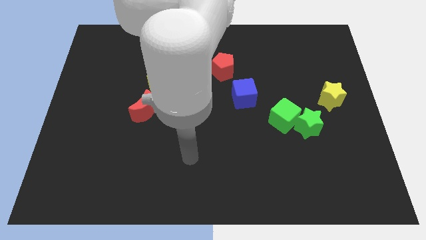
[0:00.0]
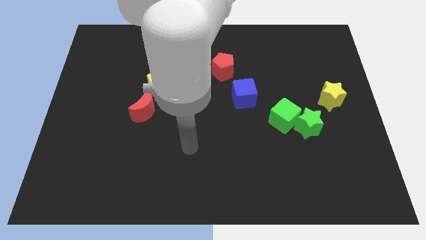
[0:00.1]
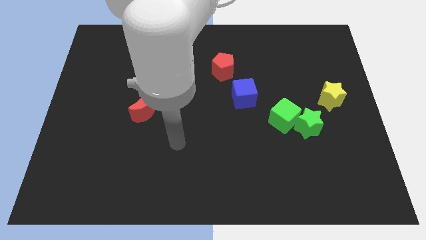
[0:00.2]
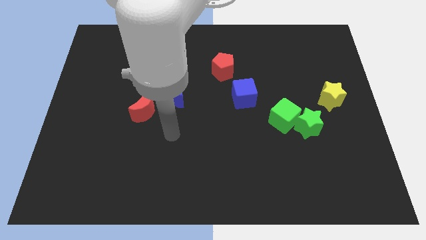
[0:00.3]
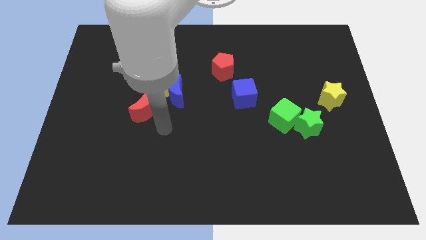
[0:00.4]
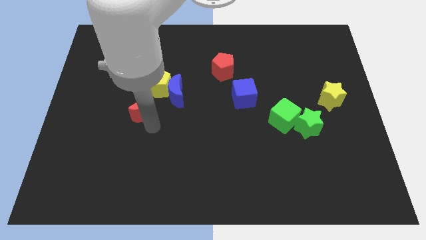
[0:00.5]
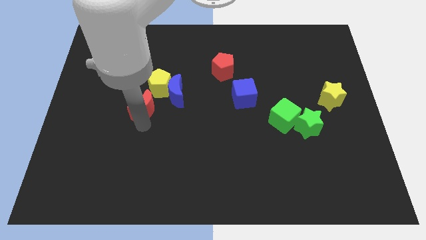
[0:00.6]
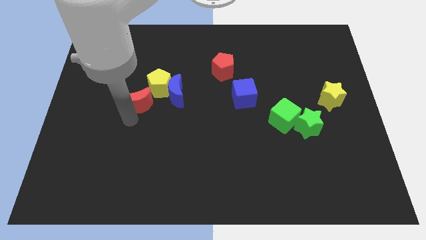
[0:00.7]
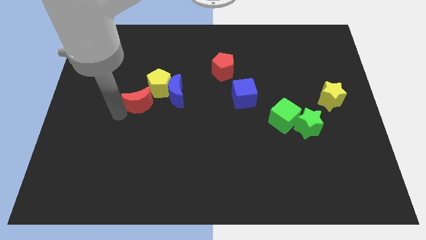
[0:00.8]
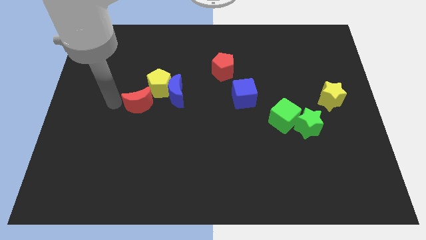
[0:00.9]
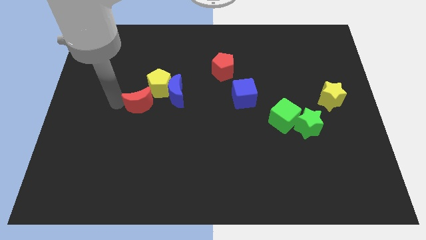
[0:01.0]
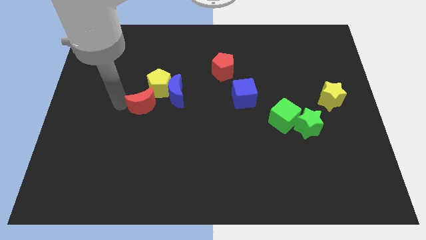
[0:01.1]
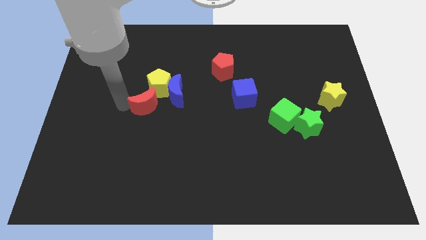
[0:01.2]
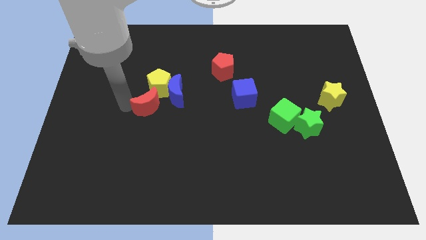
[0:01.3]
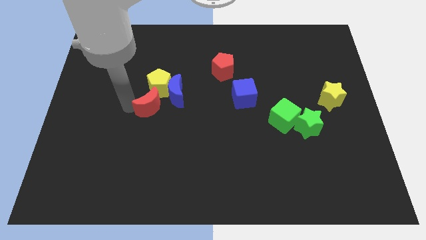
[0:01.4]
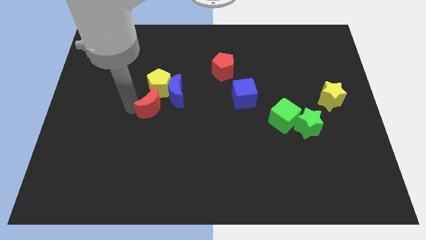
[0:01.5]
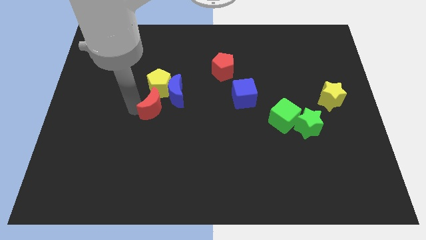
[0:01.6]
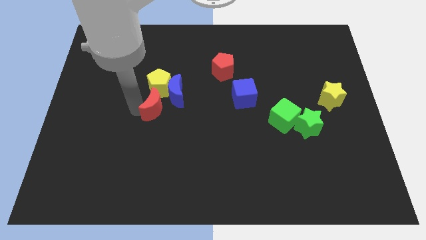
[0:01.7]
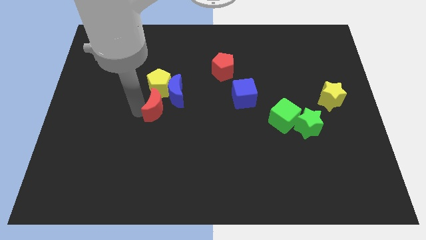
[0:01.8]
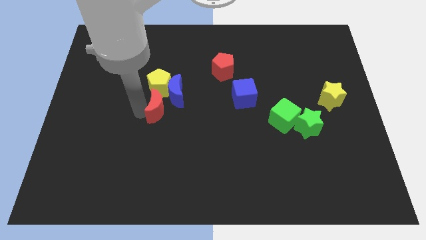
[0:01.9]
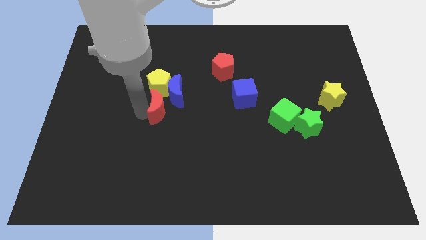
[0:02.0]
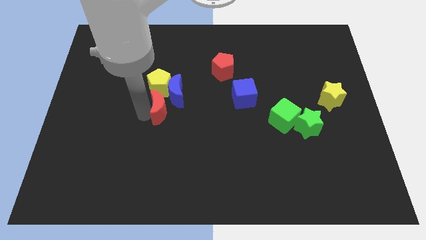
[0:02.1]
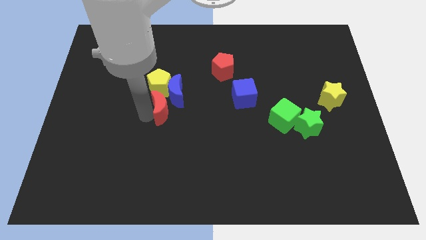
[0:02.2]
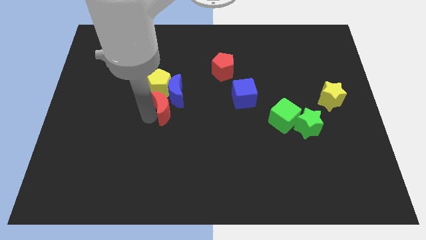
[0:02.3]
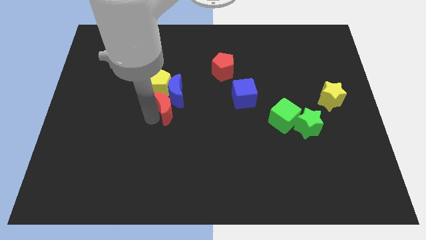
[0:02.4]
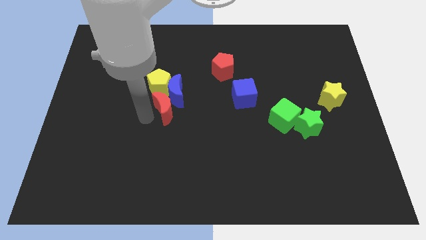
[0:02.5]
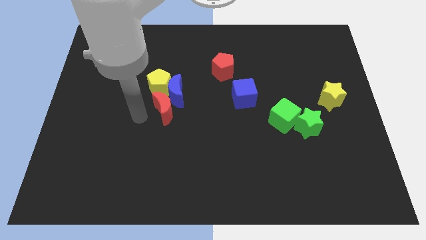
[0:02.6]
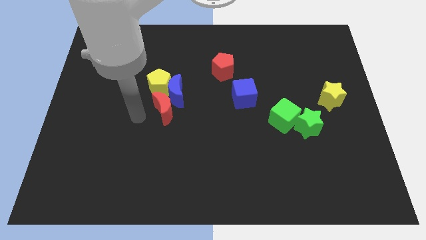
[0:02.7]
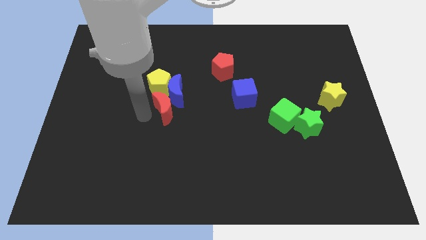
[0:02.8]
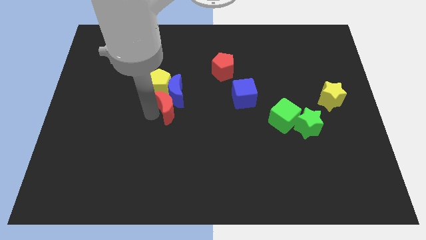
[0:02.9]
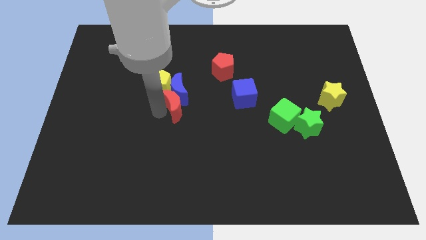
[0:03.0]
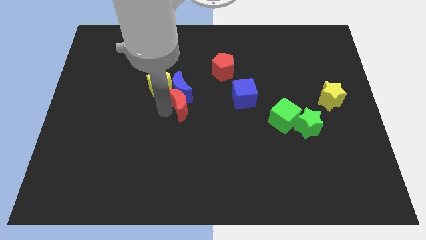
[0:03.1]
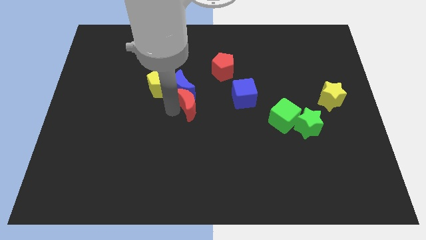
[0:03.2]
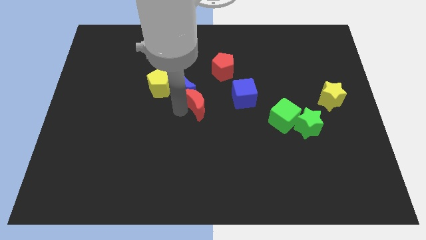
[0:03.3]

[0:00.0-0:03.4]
slide the red moon up and then to the right a little

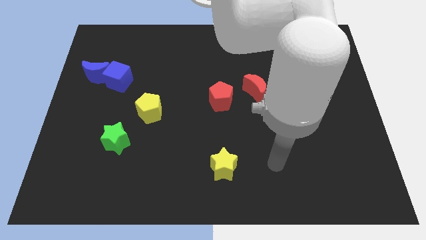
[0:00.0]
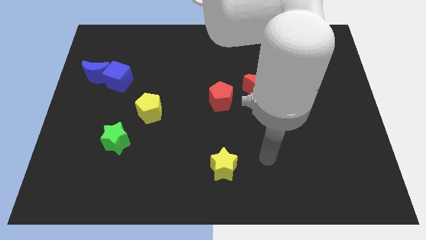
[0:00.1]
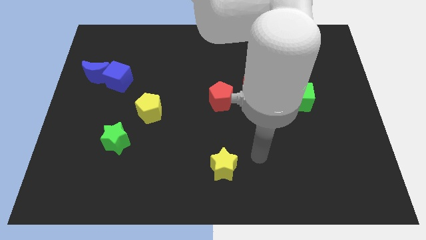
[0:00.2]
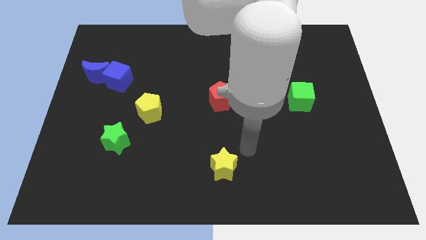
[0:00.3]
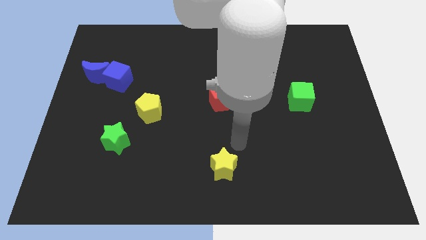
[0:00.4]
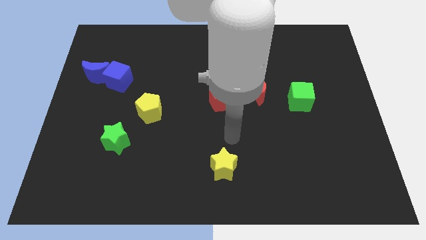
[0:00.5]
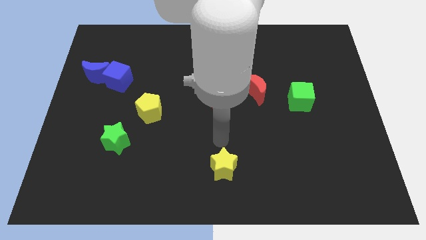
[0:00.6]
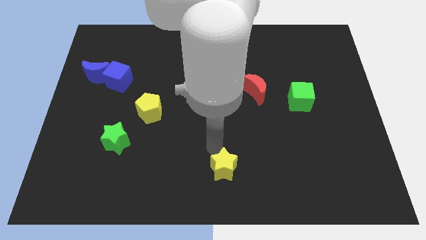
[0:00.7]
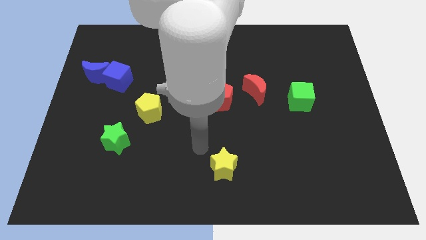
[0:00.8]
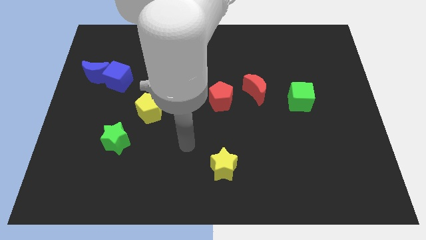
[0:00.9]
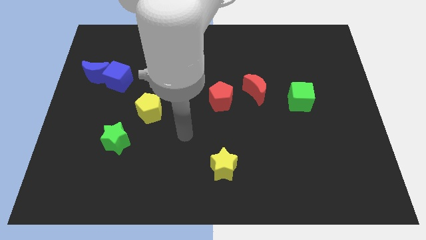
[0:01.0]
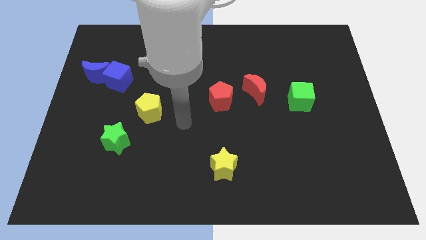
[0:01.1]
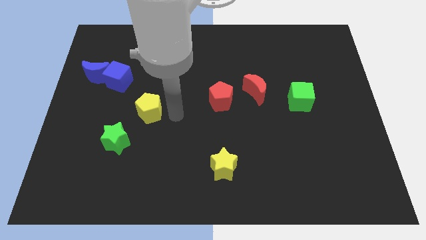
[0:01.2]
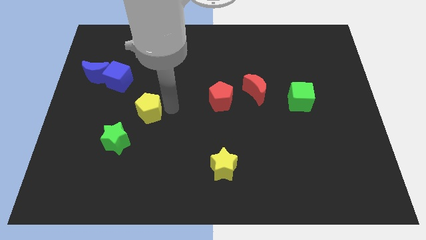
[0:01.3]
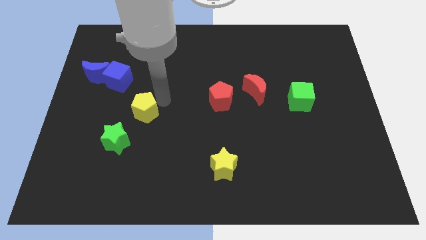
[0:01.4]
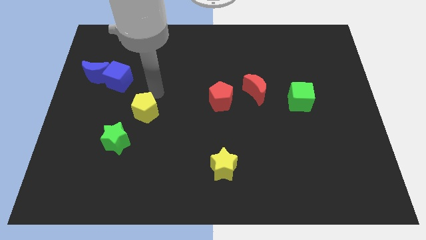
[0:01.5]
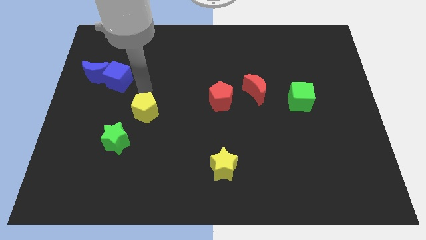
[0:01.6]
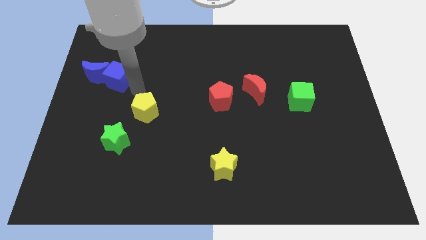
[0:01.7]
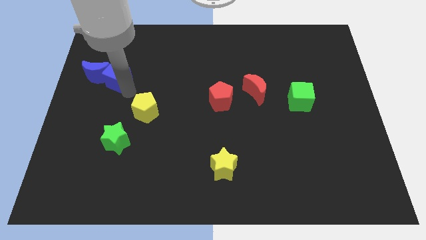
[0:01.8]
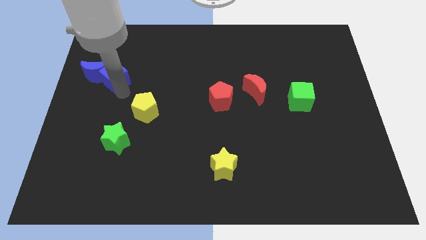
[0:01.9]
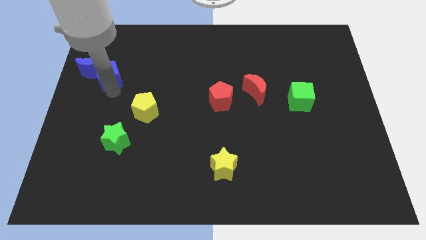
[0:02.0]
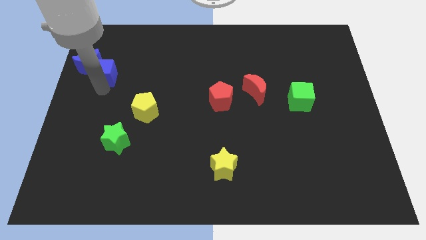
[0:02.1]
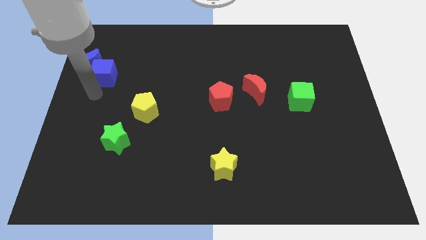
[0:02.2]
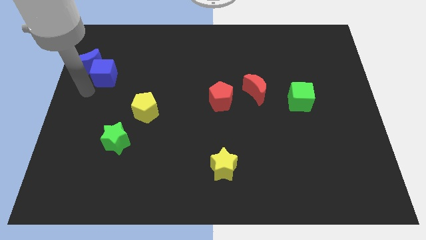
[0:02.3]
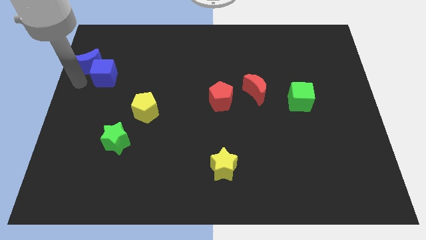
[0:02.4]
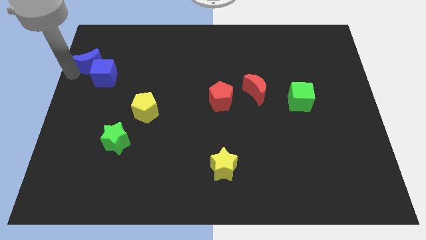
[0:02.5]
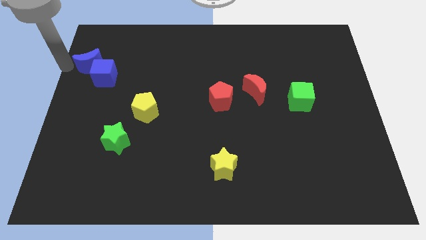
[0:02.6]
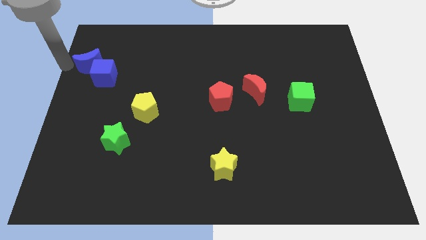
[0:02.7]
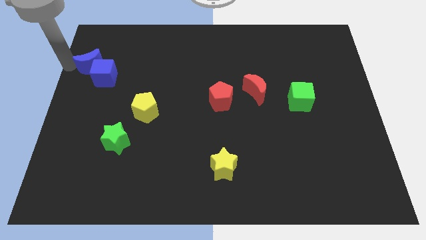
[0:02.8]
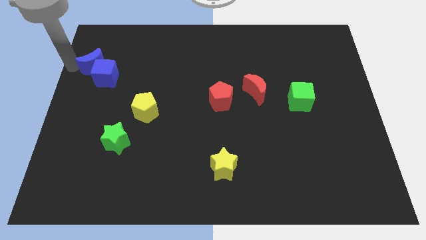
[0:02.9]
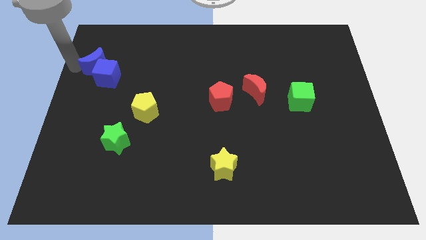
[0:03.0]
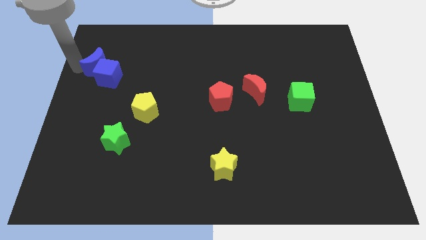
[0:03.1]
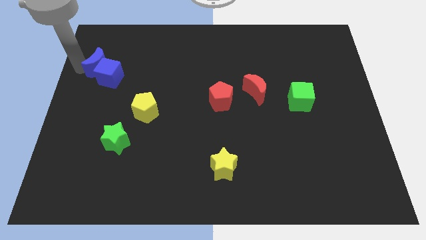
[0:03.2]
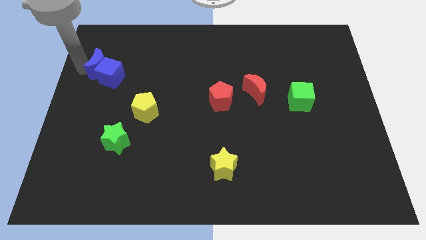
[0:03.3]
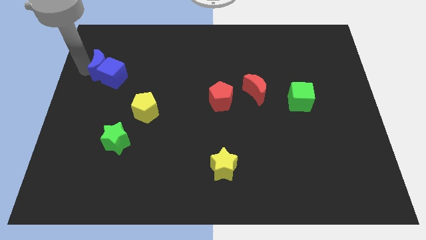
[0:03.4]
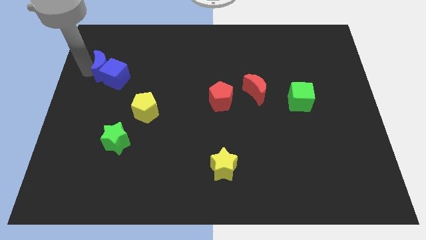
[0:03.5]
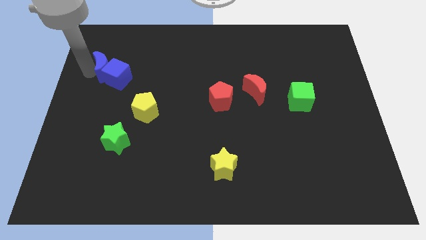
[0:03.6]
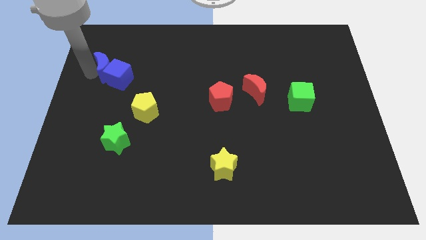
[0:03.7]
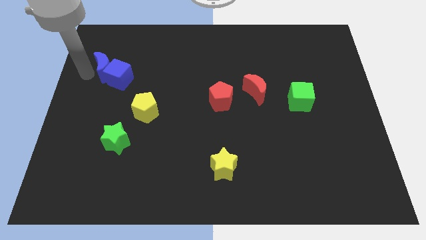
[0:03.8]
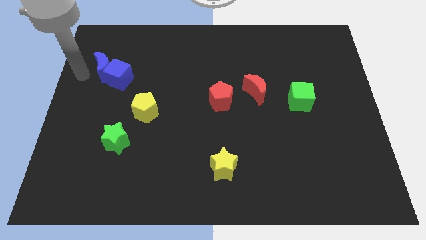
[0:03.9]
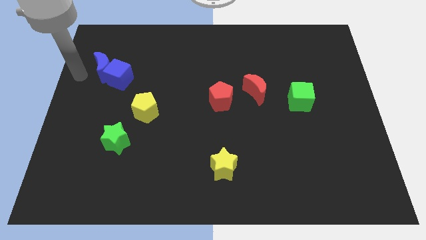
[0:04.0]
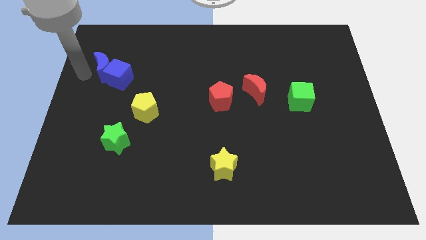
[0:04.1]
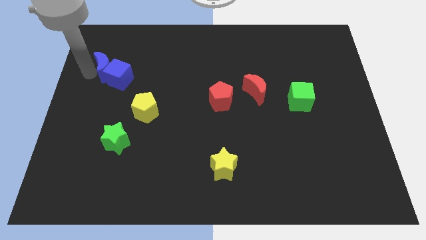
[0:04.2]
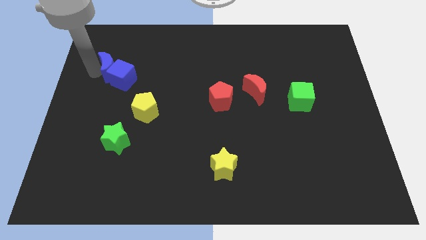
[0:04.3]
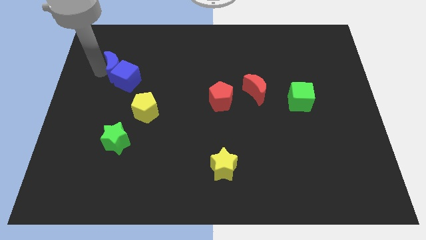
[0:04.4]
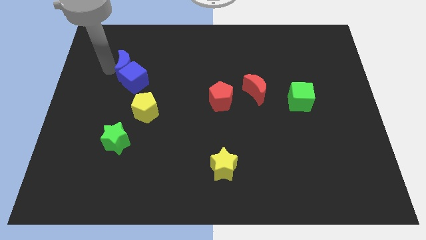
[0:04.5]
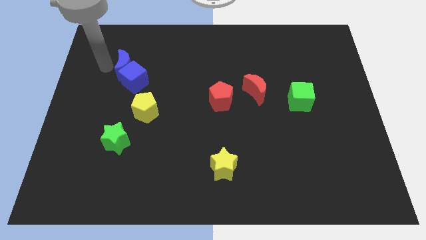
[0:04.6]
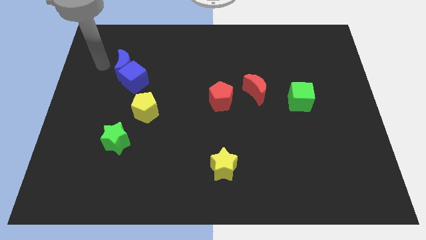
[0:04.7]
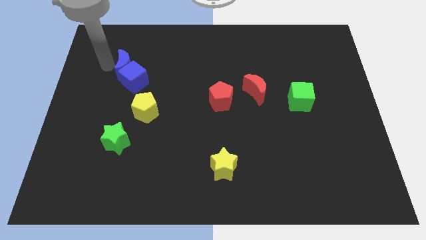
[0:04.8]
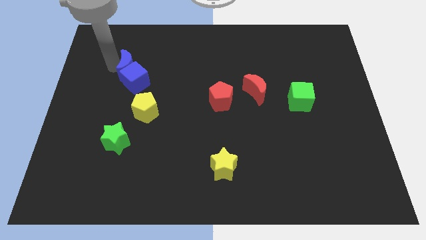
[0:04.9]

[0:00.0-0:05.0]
slightly move the blue moon right
